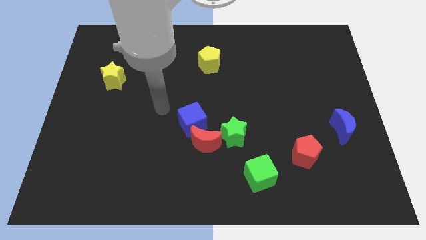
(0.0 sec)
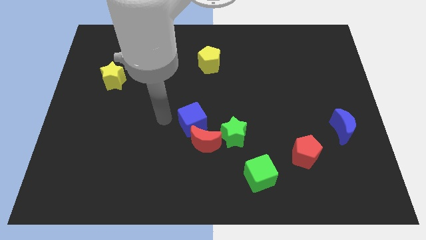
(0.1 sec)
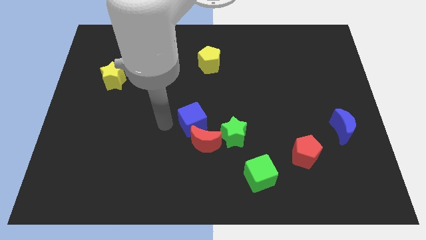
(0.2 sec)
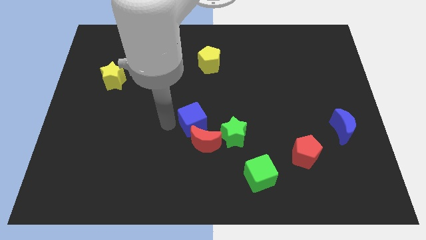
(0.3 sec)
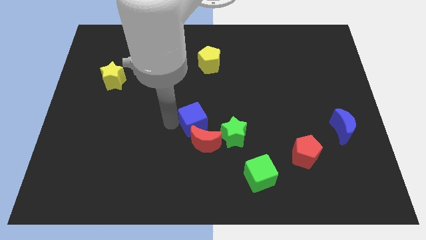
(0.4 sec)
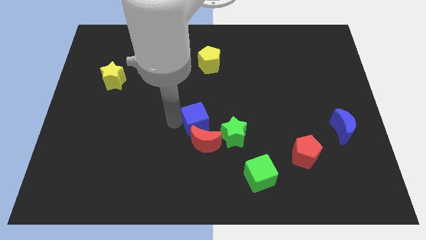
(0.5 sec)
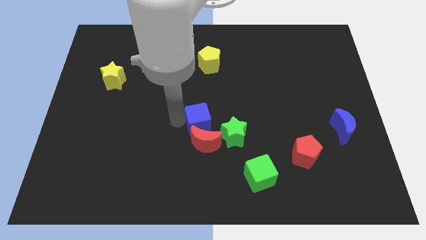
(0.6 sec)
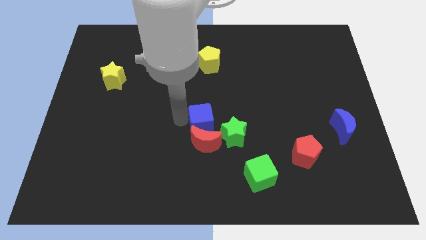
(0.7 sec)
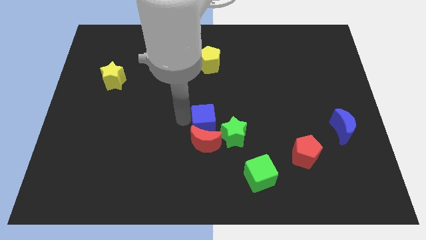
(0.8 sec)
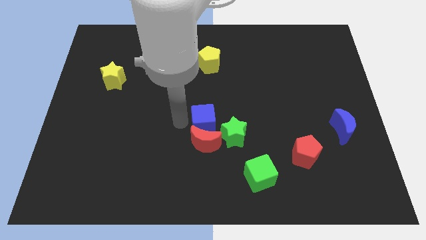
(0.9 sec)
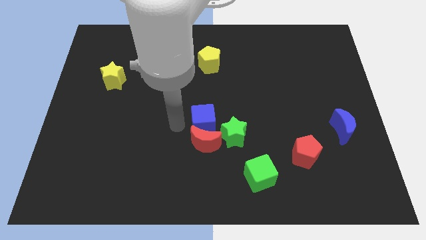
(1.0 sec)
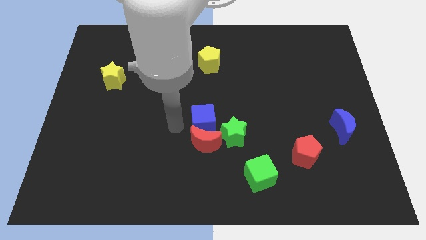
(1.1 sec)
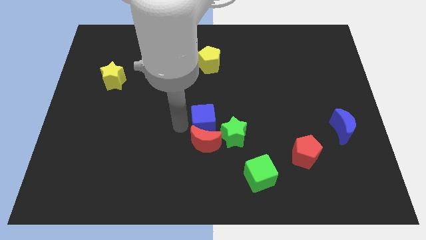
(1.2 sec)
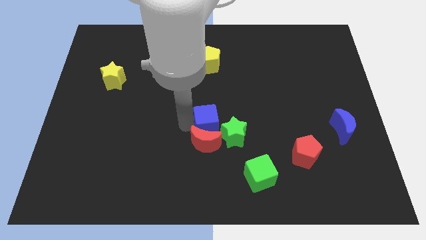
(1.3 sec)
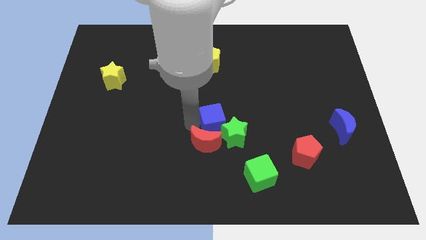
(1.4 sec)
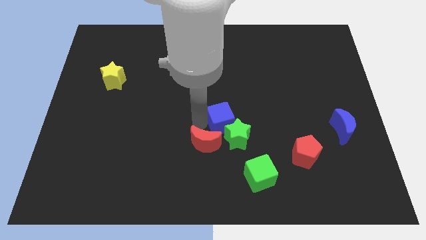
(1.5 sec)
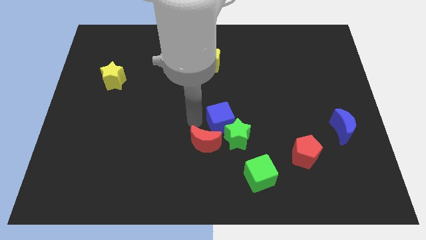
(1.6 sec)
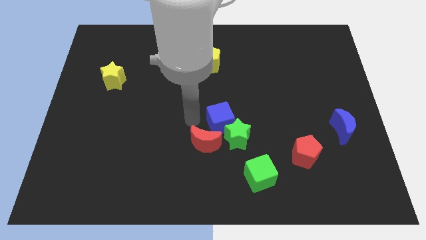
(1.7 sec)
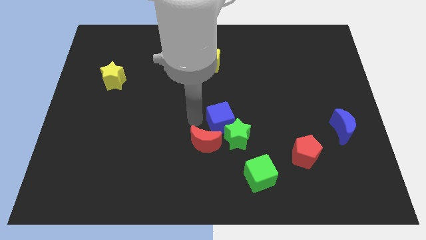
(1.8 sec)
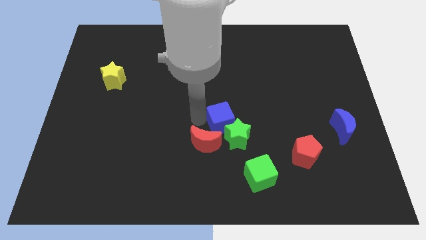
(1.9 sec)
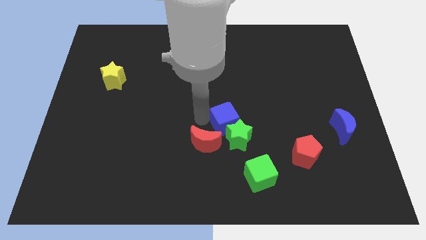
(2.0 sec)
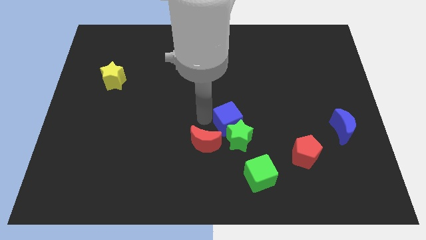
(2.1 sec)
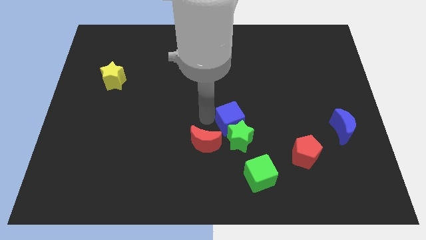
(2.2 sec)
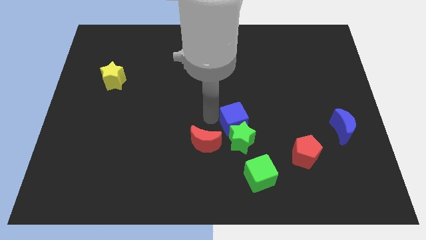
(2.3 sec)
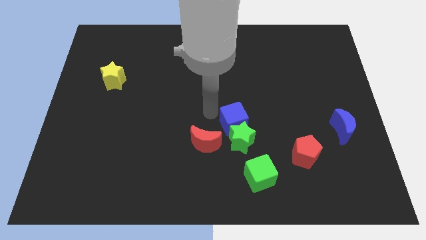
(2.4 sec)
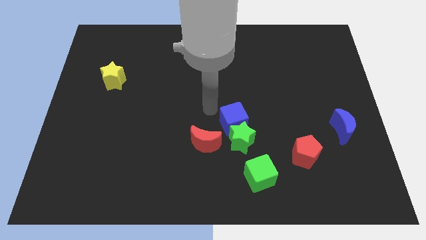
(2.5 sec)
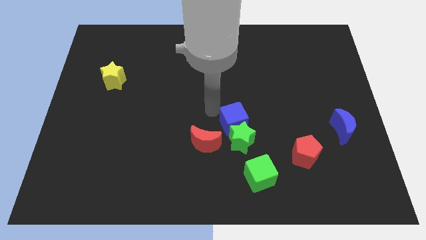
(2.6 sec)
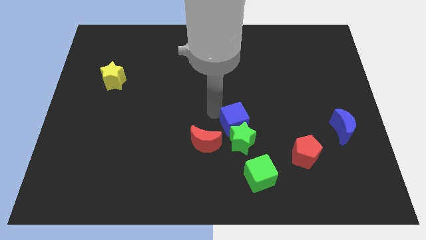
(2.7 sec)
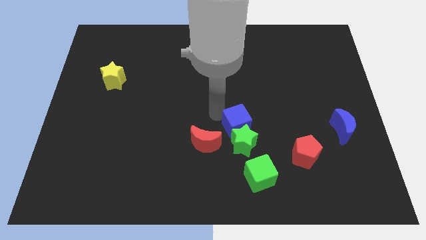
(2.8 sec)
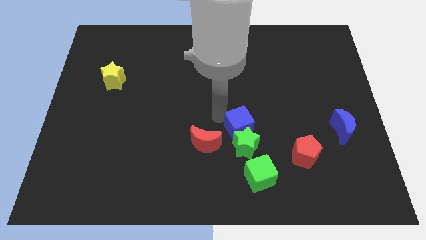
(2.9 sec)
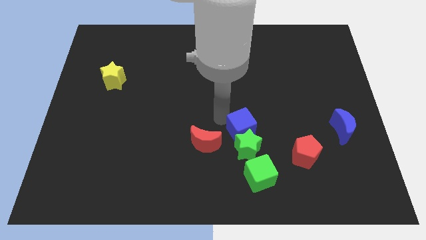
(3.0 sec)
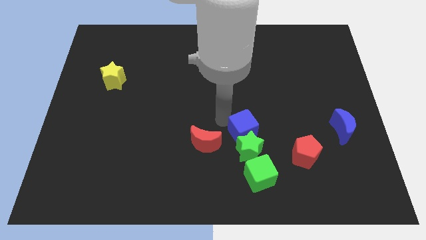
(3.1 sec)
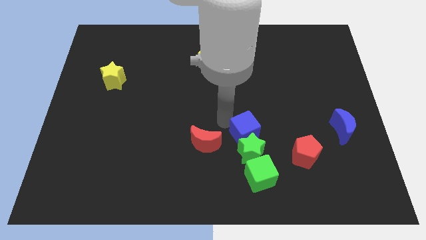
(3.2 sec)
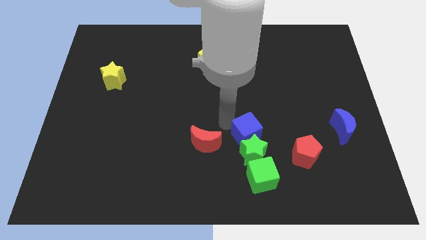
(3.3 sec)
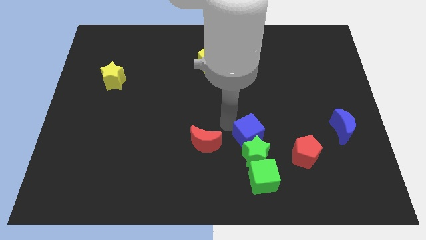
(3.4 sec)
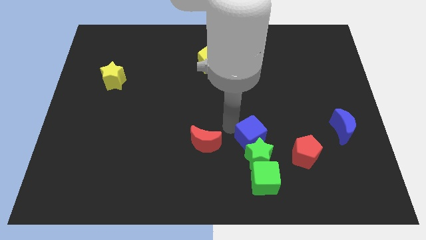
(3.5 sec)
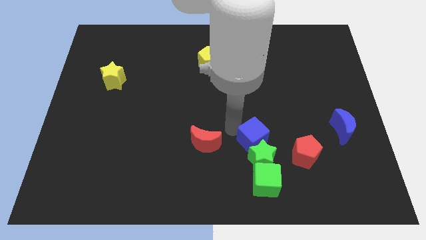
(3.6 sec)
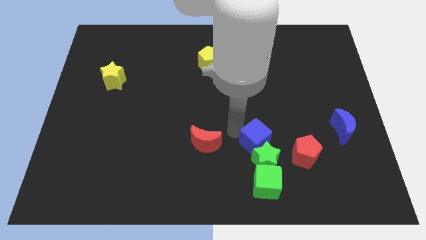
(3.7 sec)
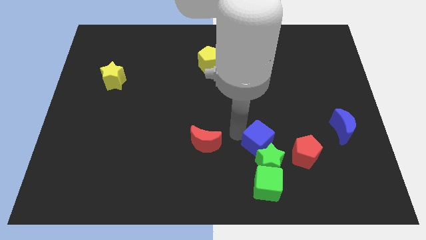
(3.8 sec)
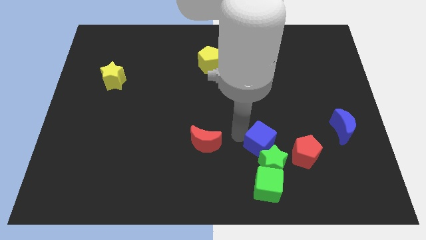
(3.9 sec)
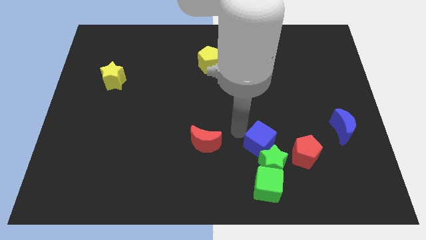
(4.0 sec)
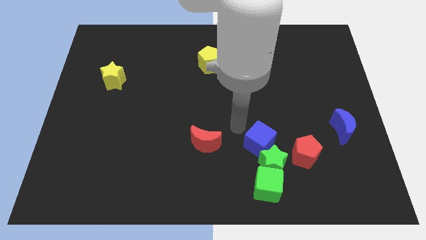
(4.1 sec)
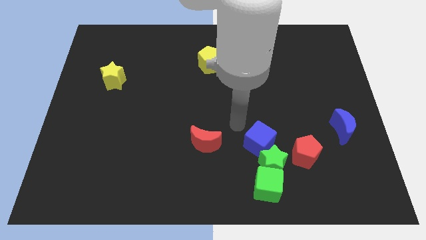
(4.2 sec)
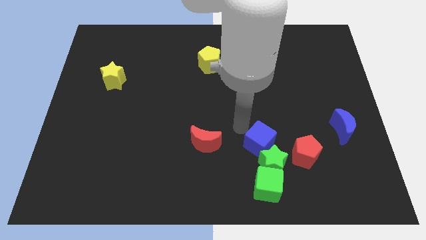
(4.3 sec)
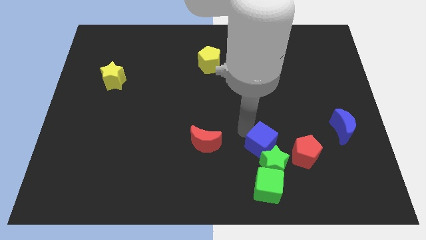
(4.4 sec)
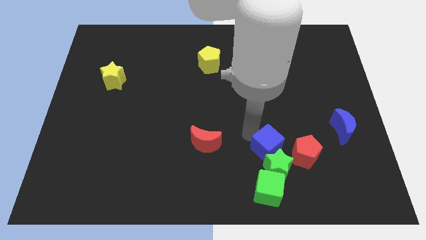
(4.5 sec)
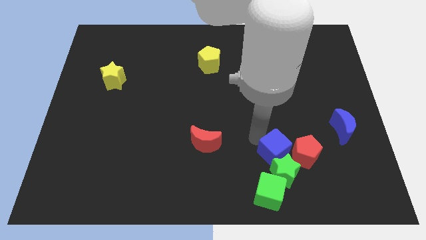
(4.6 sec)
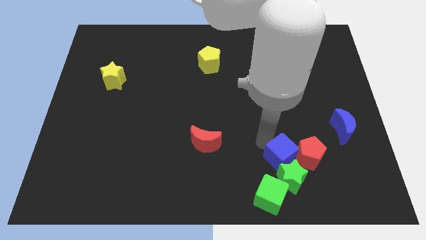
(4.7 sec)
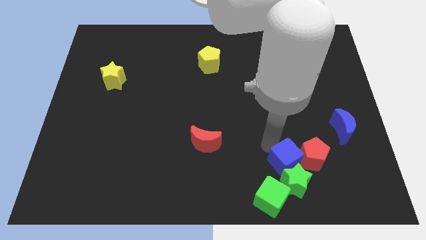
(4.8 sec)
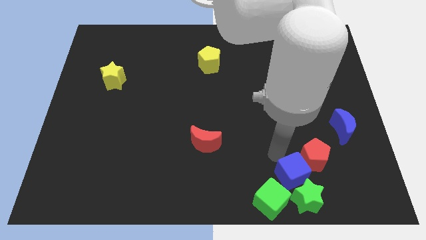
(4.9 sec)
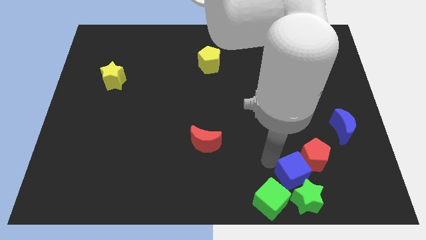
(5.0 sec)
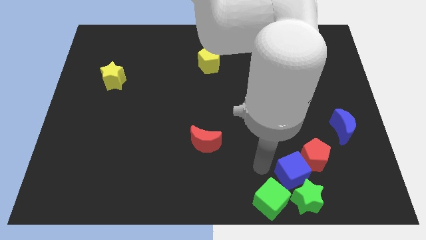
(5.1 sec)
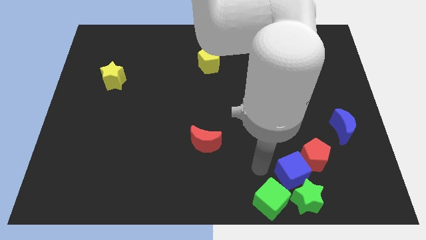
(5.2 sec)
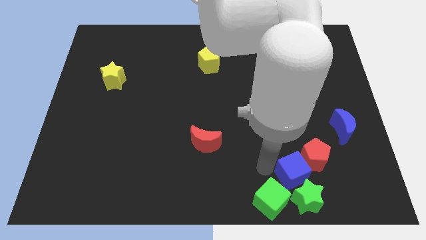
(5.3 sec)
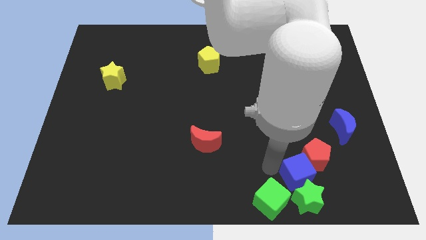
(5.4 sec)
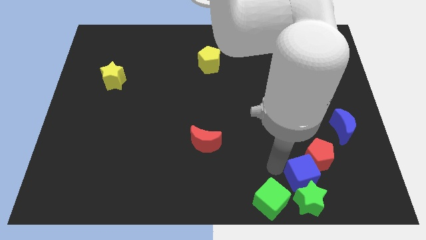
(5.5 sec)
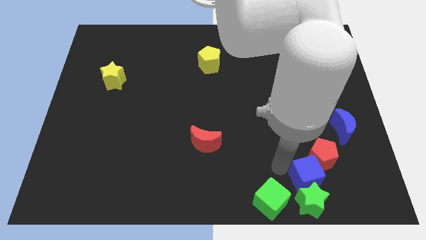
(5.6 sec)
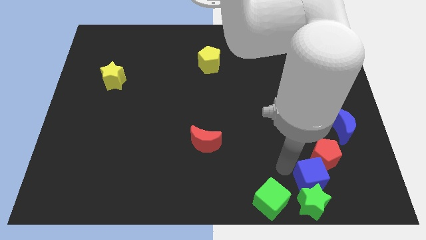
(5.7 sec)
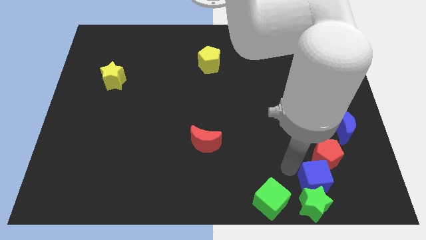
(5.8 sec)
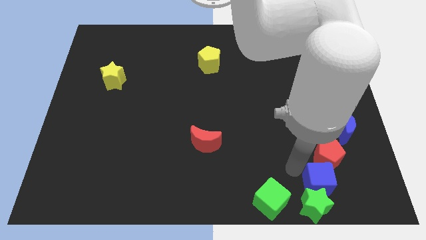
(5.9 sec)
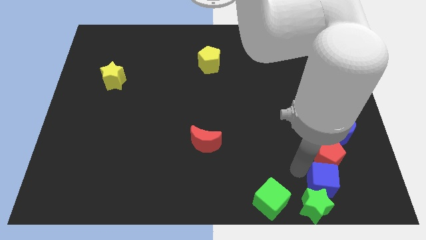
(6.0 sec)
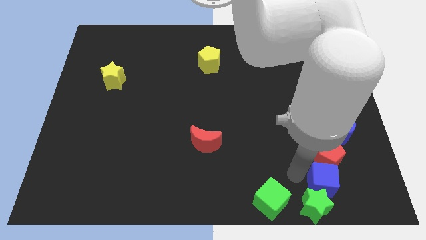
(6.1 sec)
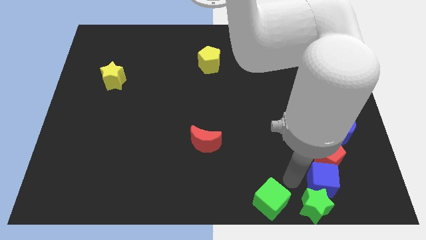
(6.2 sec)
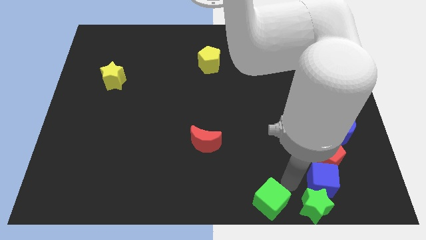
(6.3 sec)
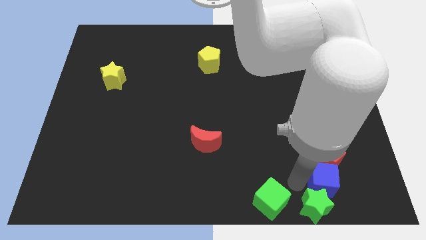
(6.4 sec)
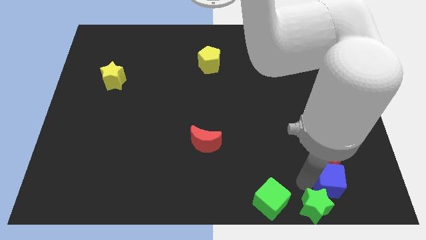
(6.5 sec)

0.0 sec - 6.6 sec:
push the blue cube diagonally down and to the right of the red pentagon

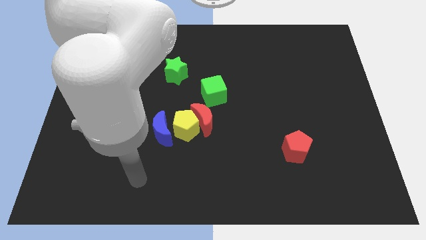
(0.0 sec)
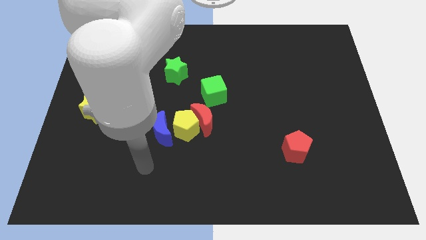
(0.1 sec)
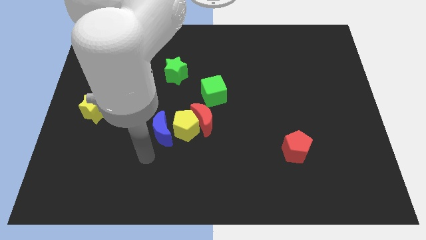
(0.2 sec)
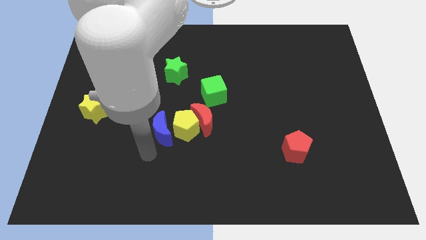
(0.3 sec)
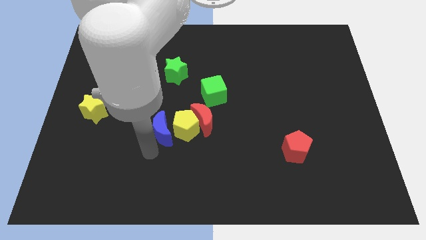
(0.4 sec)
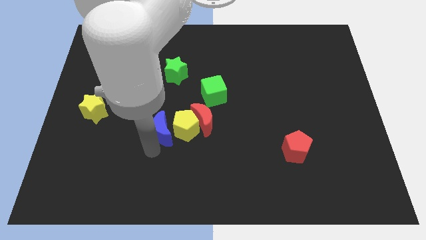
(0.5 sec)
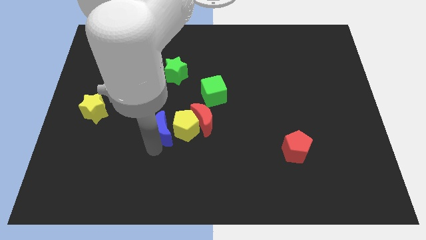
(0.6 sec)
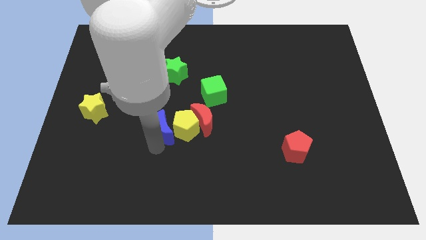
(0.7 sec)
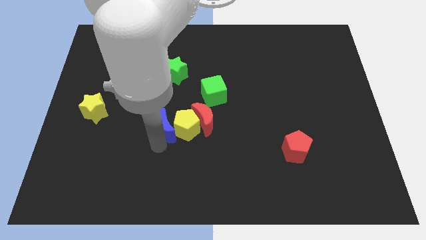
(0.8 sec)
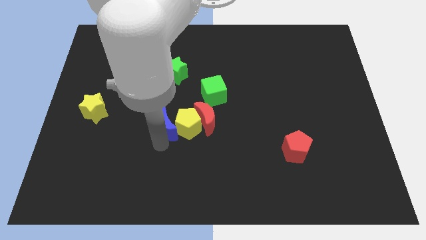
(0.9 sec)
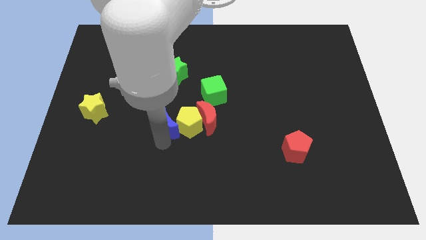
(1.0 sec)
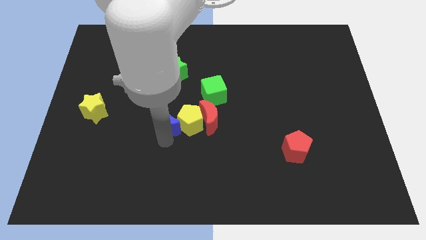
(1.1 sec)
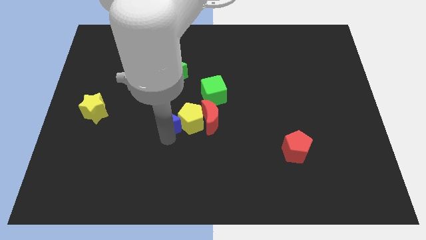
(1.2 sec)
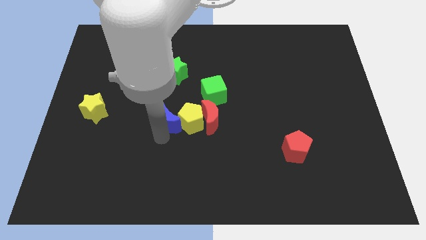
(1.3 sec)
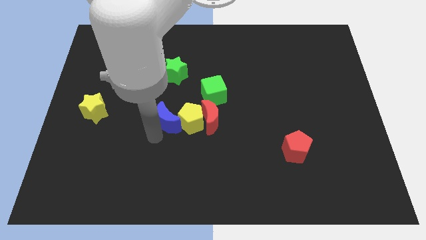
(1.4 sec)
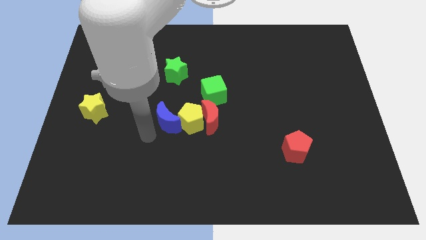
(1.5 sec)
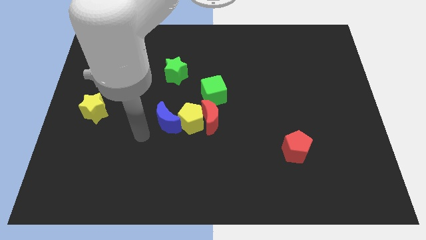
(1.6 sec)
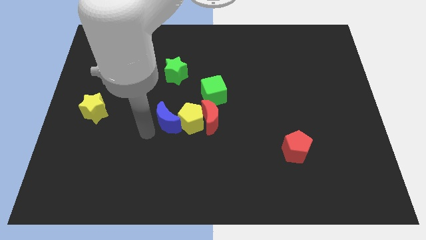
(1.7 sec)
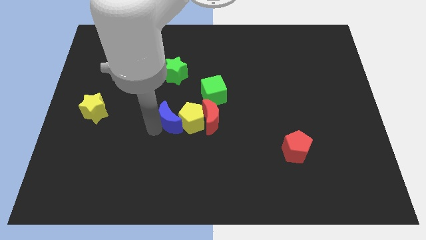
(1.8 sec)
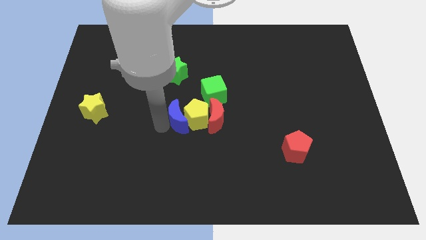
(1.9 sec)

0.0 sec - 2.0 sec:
put the blue moon to the bottom left side of the green cube
